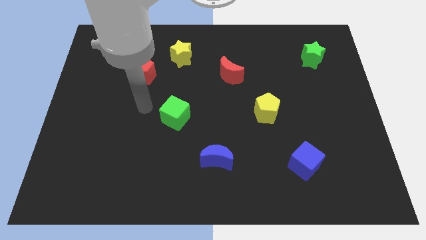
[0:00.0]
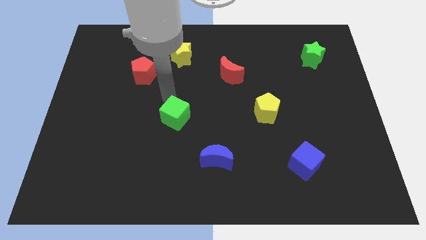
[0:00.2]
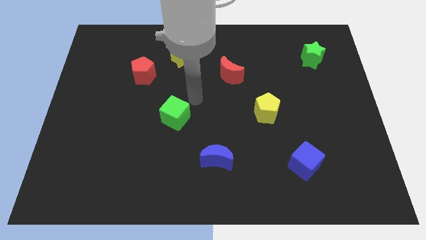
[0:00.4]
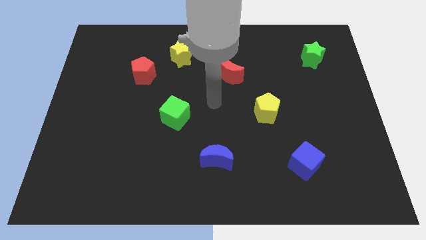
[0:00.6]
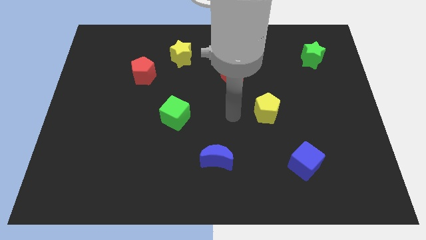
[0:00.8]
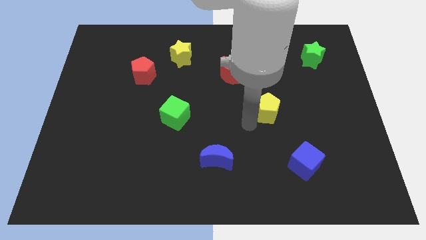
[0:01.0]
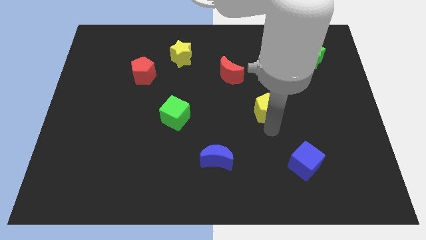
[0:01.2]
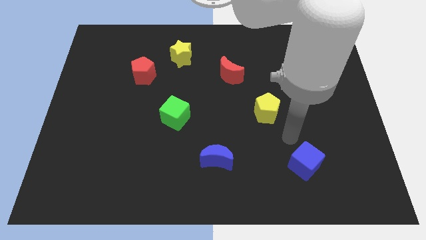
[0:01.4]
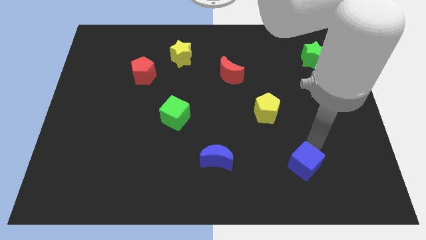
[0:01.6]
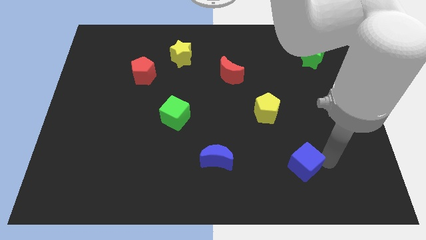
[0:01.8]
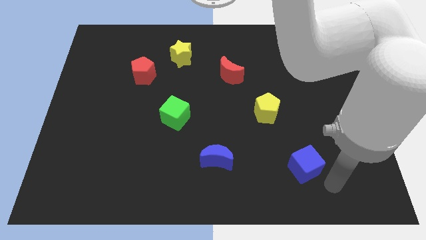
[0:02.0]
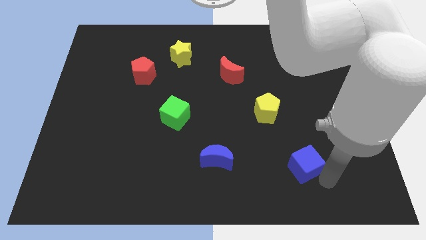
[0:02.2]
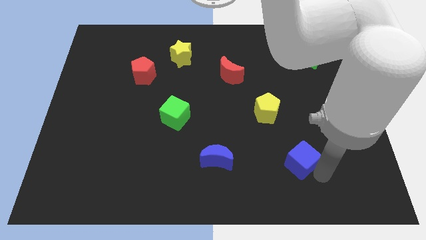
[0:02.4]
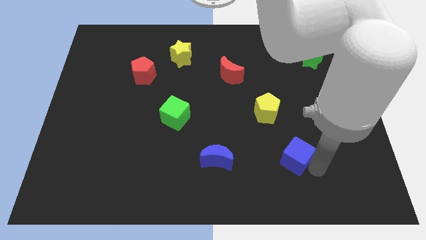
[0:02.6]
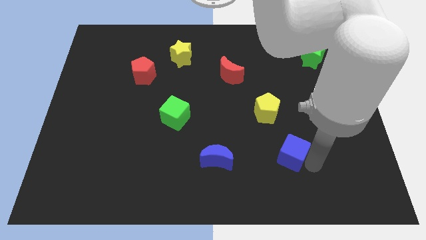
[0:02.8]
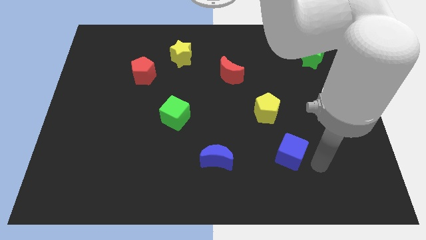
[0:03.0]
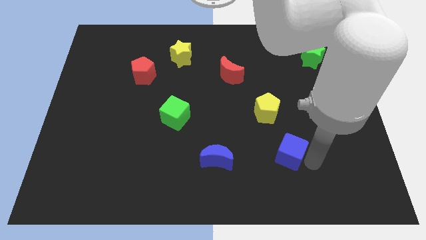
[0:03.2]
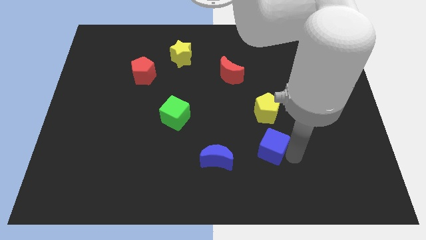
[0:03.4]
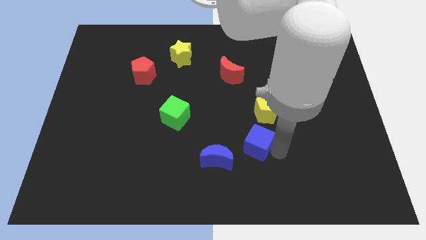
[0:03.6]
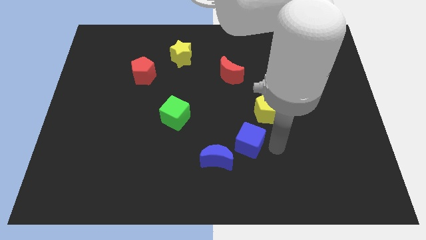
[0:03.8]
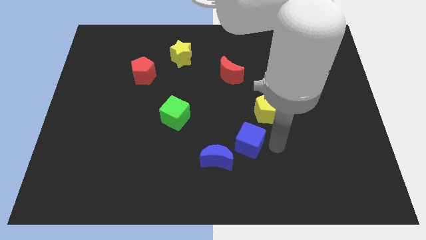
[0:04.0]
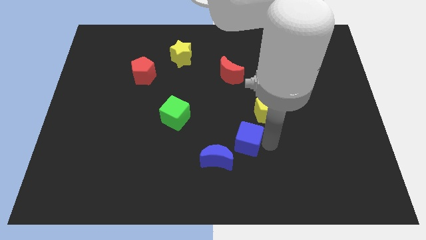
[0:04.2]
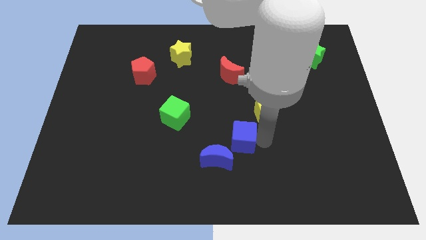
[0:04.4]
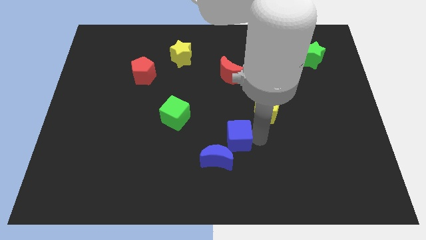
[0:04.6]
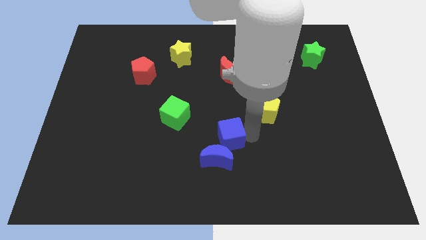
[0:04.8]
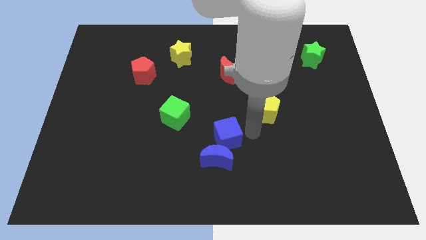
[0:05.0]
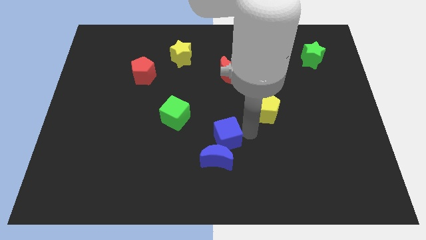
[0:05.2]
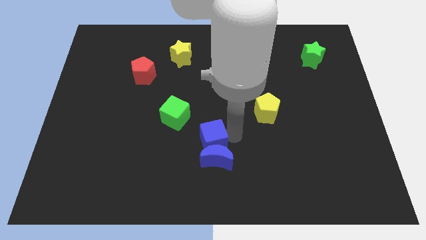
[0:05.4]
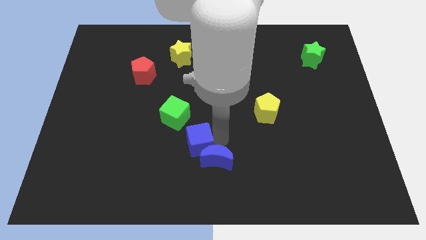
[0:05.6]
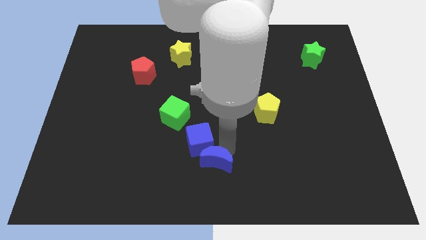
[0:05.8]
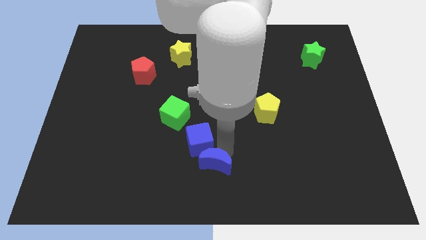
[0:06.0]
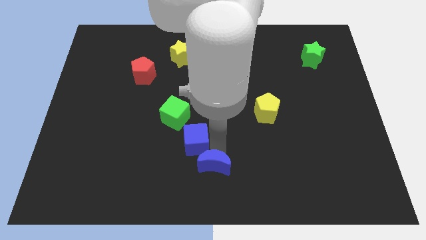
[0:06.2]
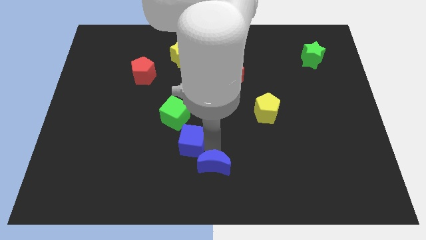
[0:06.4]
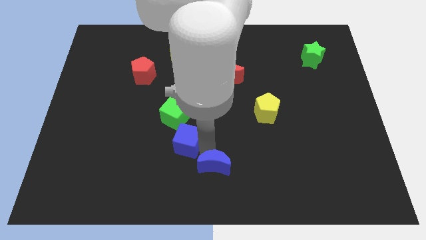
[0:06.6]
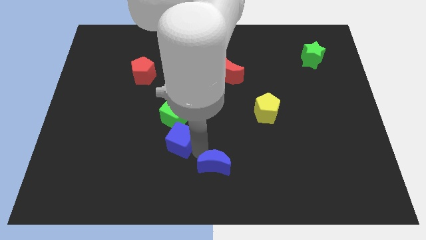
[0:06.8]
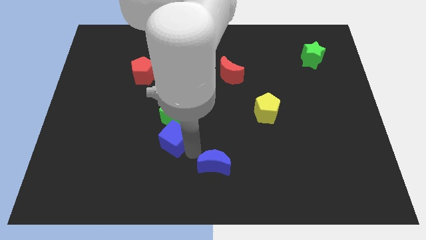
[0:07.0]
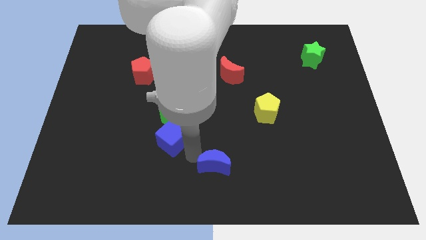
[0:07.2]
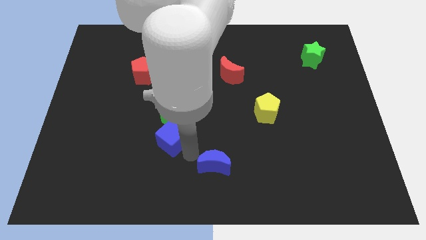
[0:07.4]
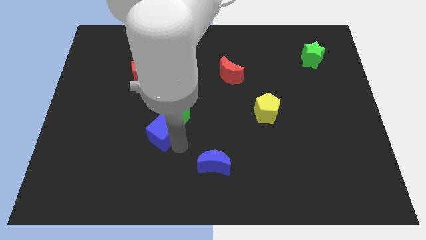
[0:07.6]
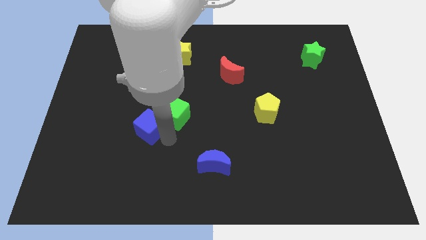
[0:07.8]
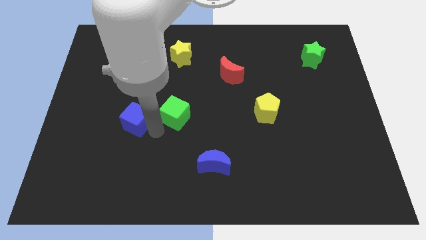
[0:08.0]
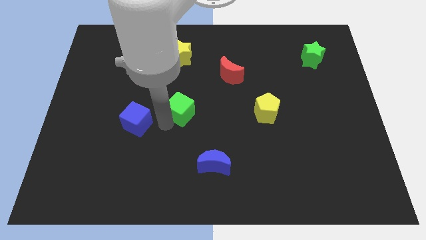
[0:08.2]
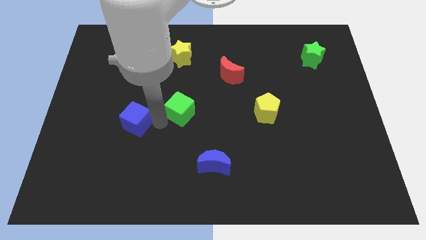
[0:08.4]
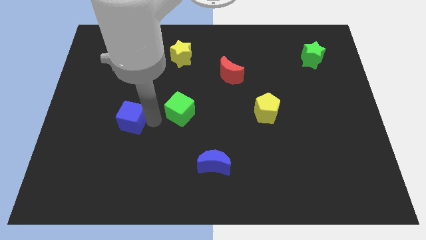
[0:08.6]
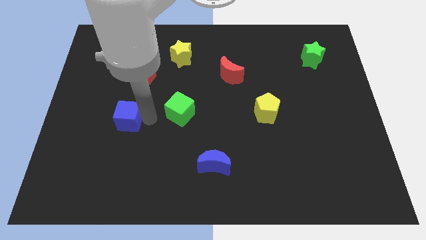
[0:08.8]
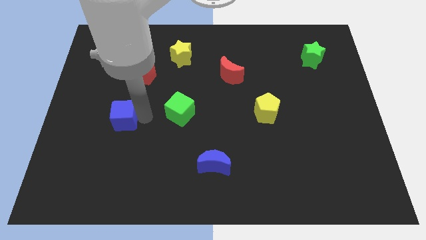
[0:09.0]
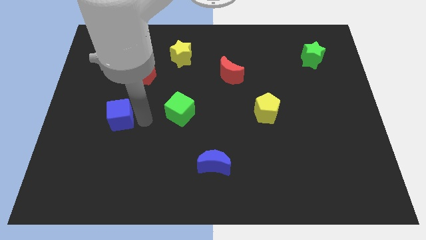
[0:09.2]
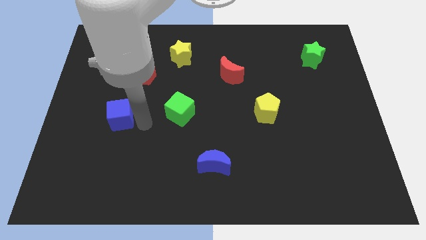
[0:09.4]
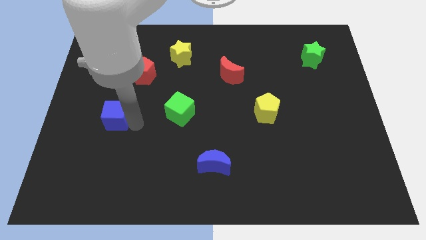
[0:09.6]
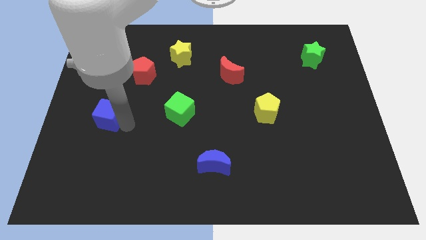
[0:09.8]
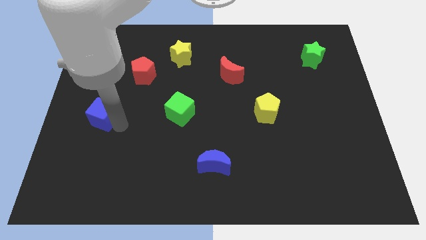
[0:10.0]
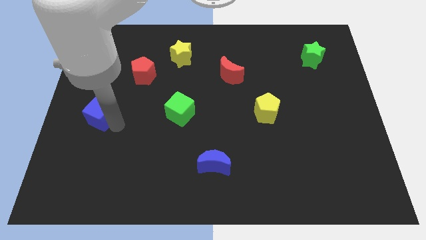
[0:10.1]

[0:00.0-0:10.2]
slide the blue cube to the left side of the board
